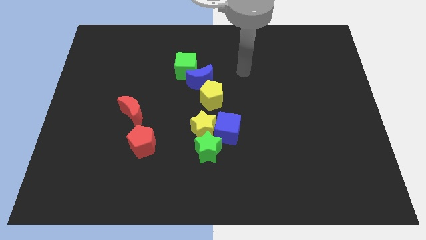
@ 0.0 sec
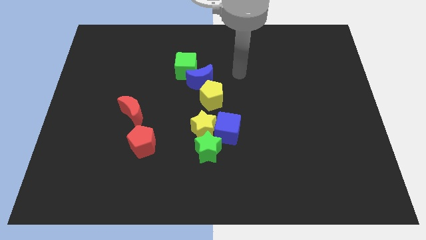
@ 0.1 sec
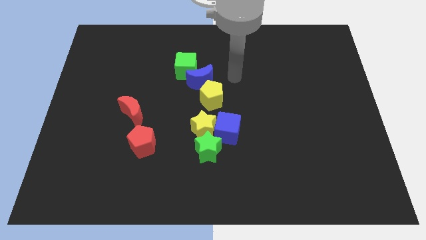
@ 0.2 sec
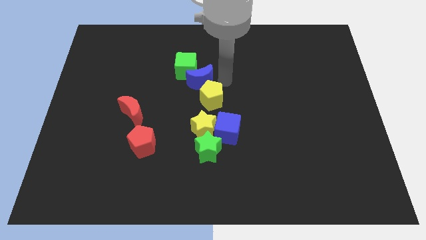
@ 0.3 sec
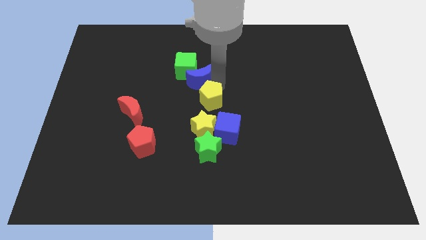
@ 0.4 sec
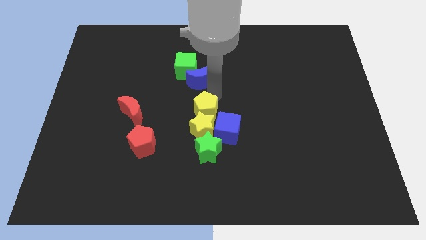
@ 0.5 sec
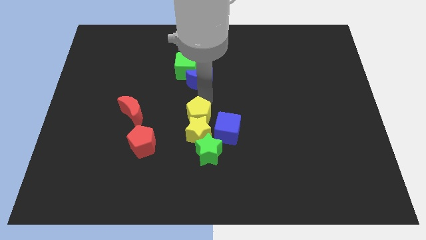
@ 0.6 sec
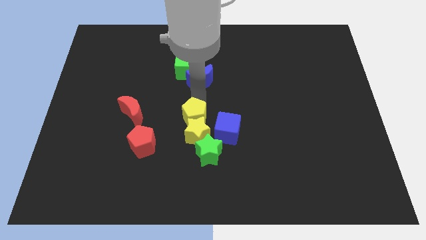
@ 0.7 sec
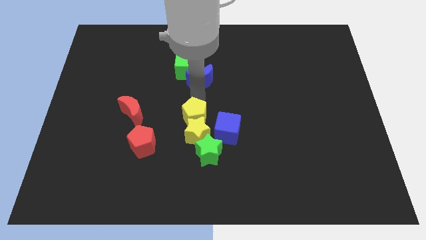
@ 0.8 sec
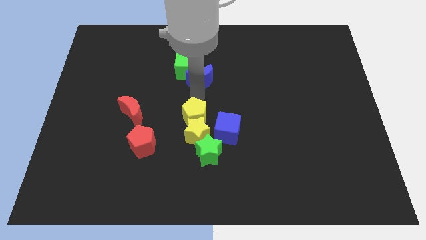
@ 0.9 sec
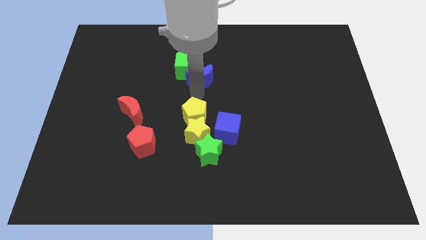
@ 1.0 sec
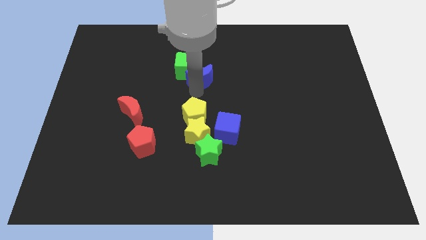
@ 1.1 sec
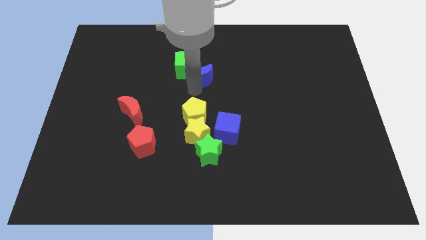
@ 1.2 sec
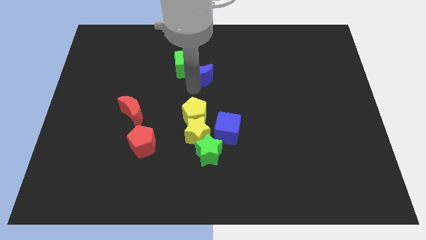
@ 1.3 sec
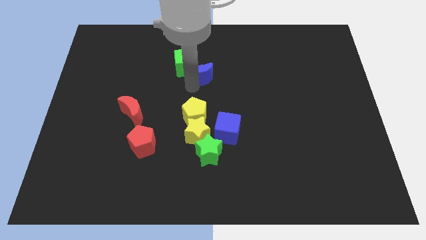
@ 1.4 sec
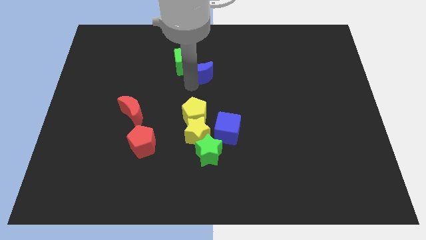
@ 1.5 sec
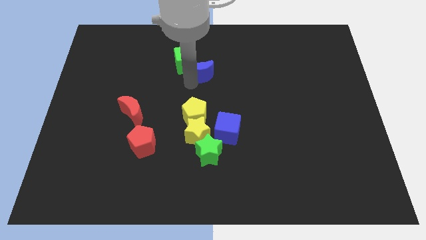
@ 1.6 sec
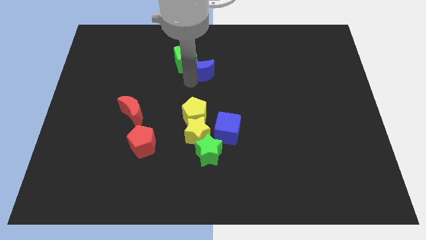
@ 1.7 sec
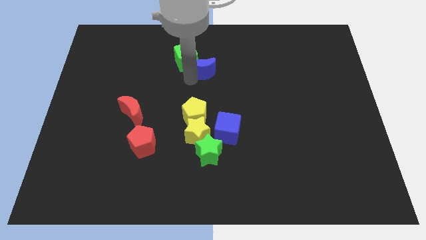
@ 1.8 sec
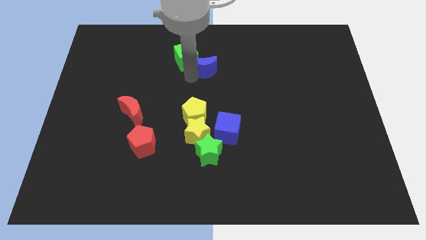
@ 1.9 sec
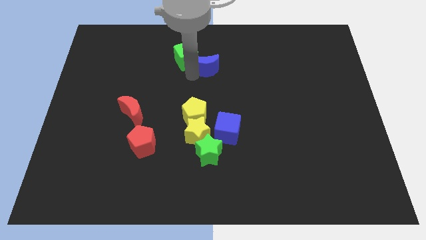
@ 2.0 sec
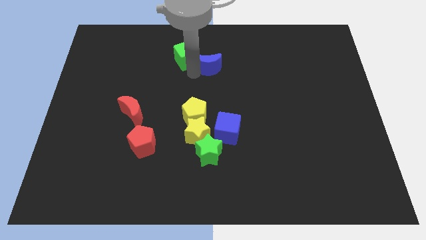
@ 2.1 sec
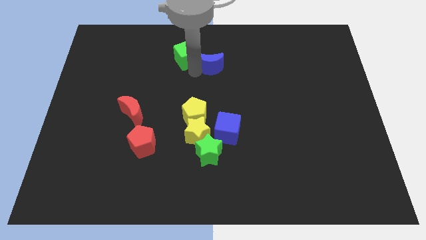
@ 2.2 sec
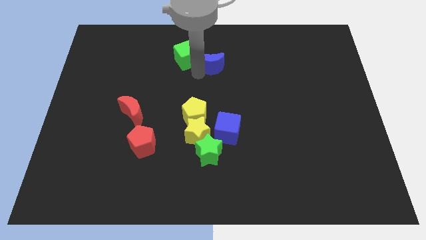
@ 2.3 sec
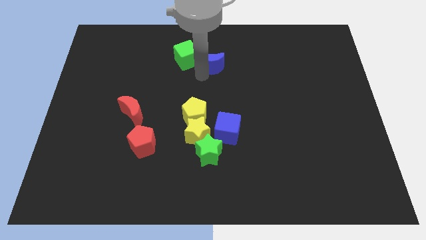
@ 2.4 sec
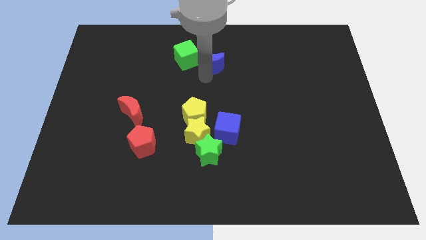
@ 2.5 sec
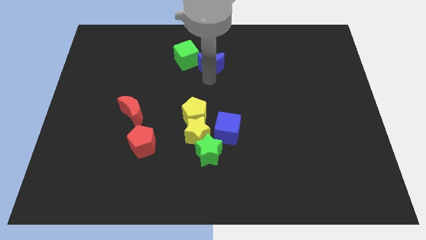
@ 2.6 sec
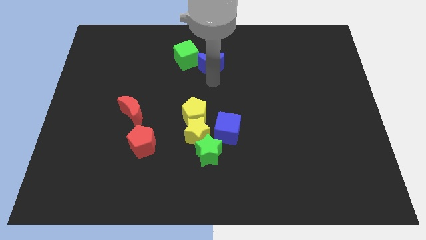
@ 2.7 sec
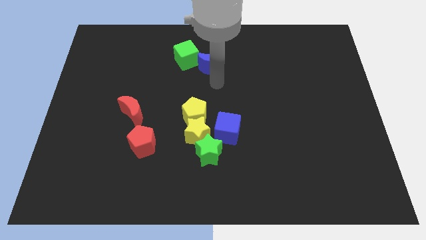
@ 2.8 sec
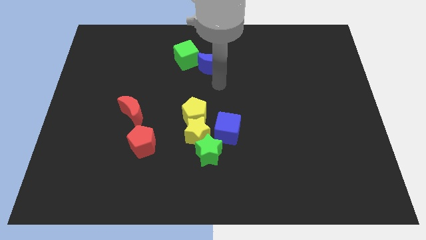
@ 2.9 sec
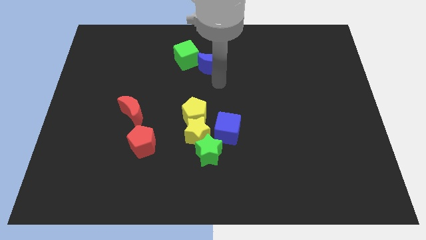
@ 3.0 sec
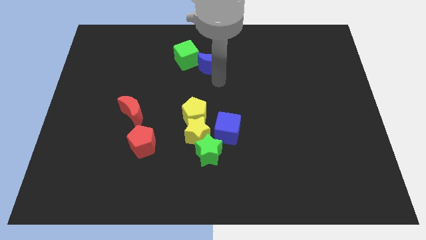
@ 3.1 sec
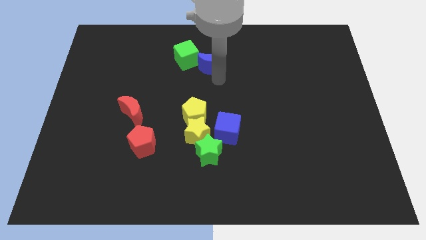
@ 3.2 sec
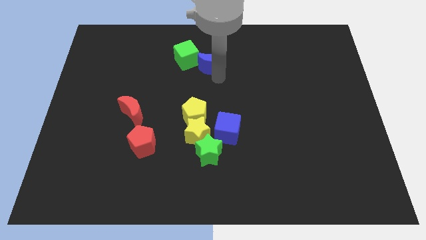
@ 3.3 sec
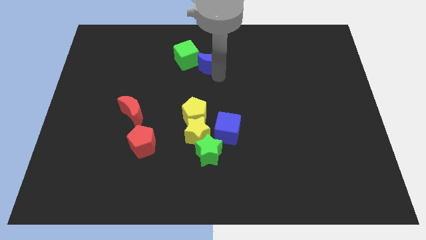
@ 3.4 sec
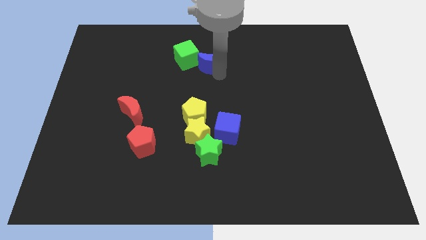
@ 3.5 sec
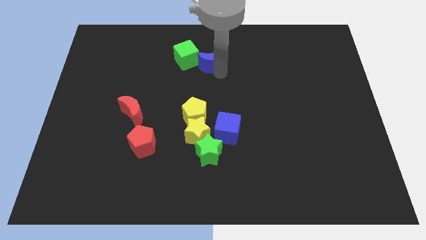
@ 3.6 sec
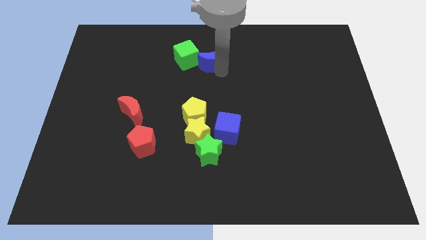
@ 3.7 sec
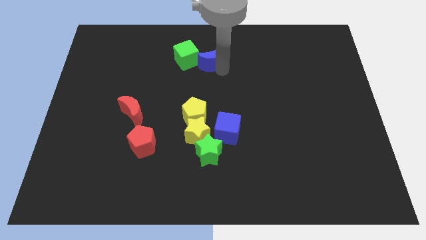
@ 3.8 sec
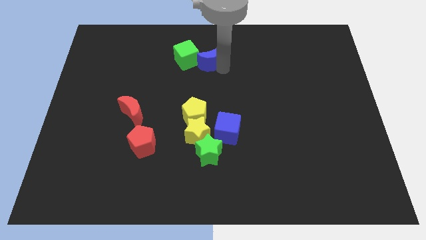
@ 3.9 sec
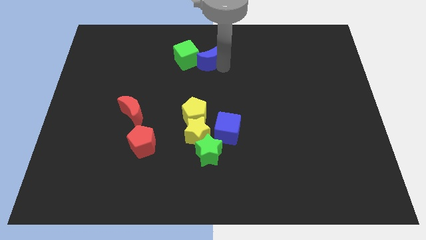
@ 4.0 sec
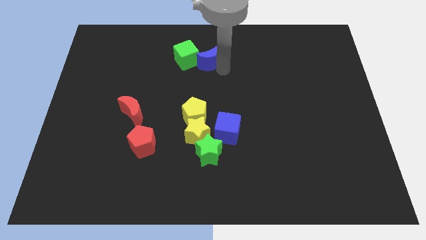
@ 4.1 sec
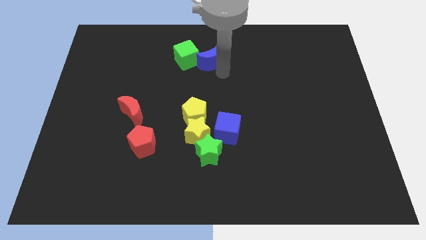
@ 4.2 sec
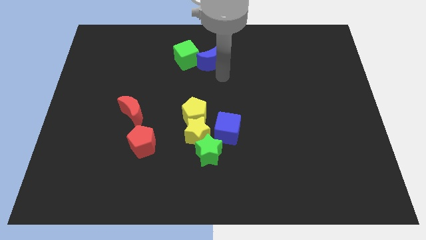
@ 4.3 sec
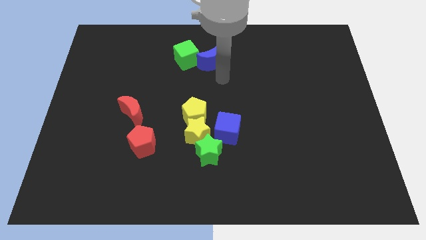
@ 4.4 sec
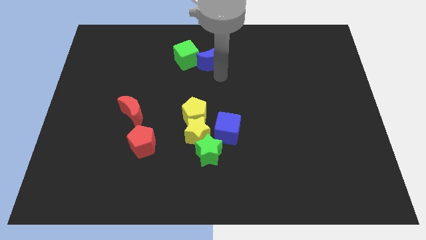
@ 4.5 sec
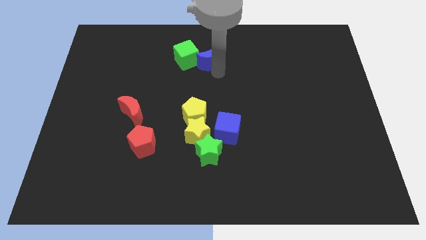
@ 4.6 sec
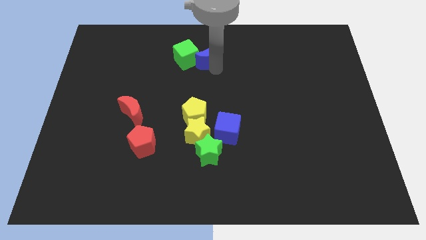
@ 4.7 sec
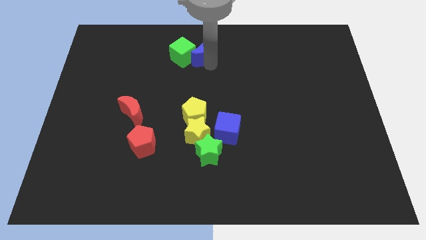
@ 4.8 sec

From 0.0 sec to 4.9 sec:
slide the blue moon to the towards your base
